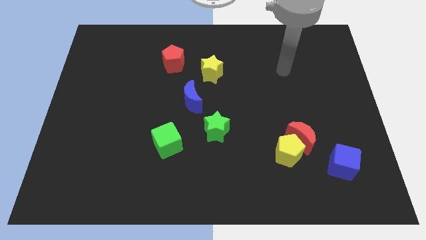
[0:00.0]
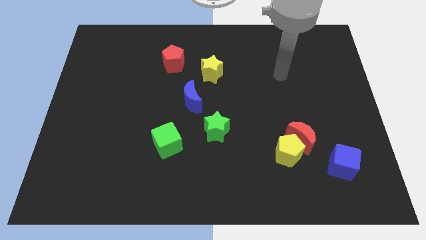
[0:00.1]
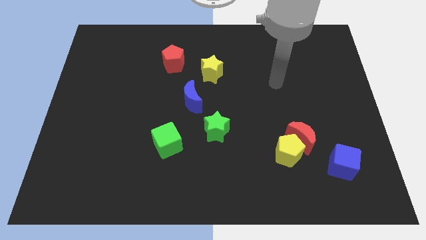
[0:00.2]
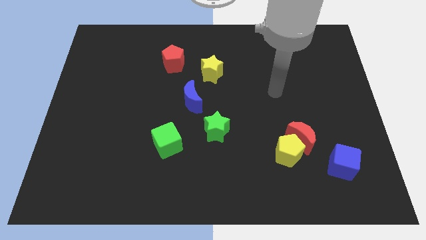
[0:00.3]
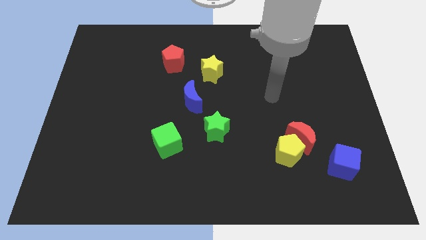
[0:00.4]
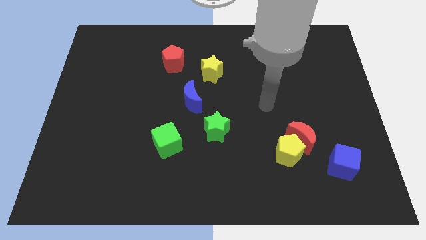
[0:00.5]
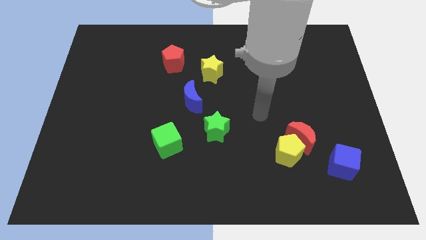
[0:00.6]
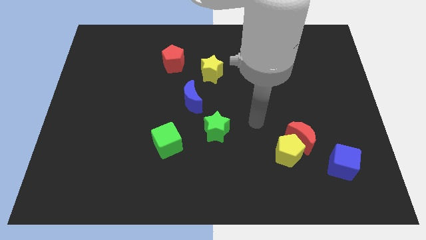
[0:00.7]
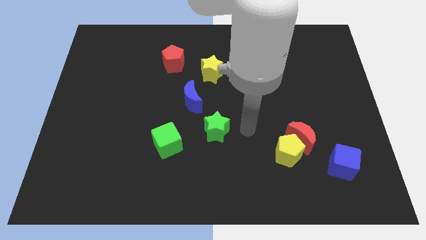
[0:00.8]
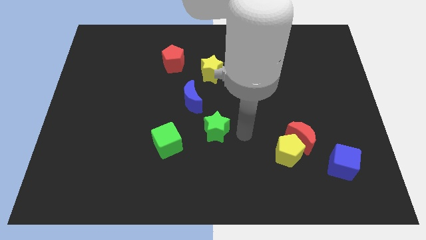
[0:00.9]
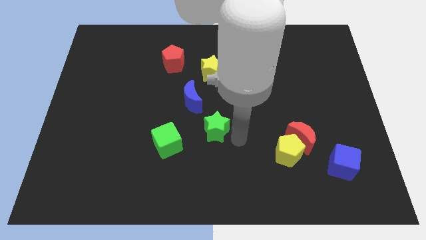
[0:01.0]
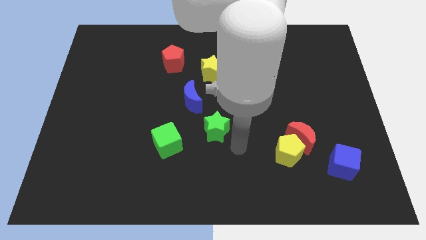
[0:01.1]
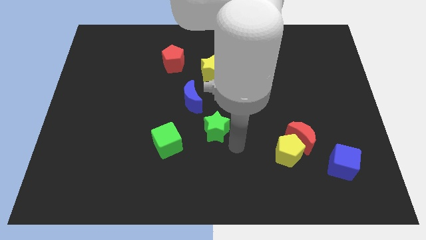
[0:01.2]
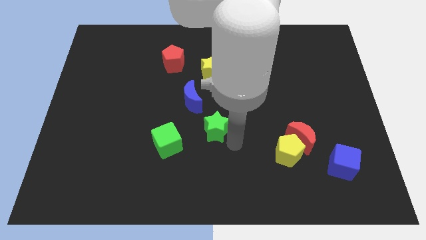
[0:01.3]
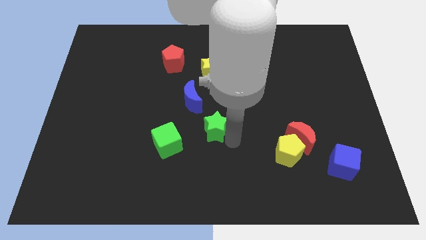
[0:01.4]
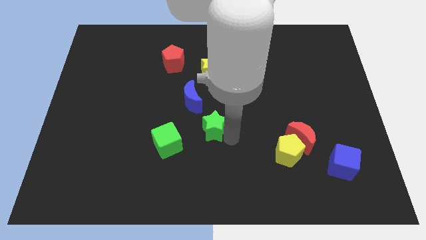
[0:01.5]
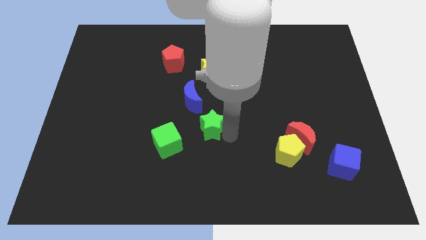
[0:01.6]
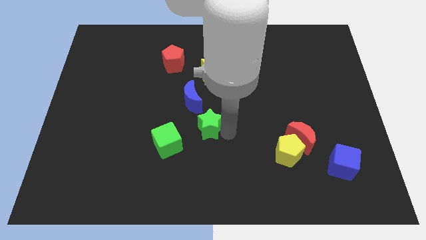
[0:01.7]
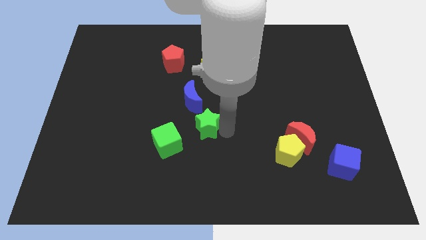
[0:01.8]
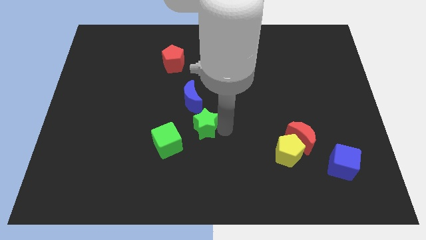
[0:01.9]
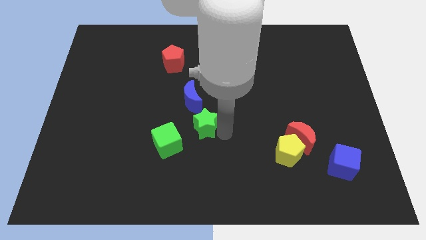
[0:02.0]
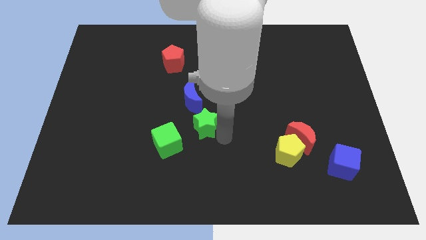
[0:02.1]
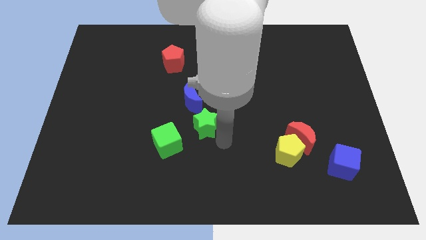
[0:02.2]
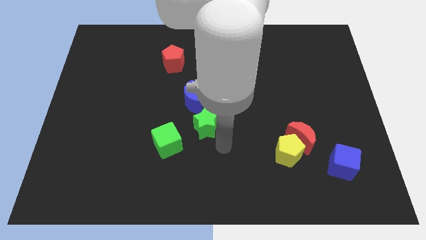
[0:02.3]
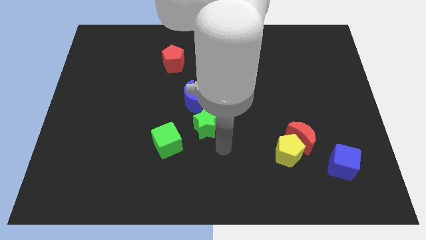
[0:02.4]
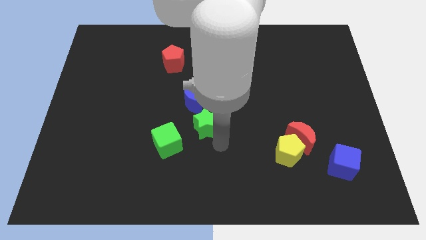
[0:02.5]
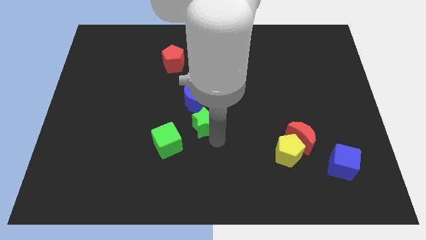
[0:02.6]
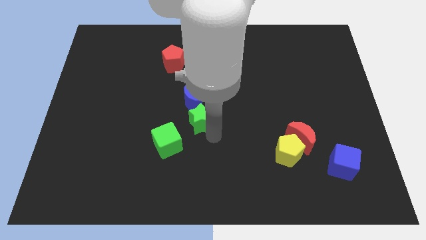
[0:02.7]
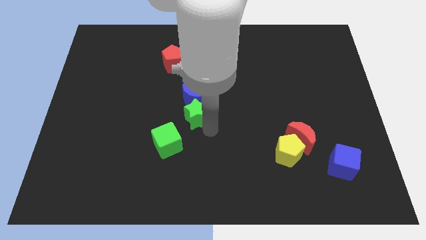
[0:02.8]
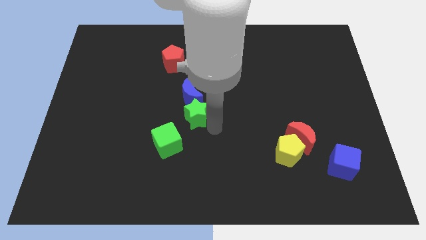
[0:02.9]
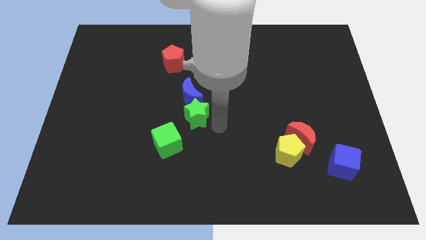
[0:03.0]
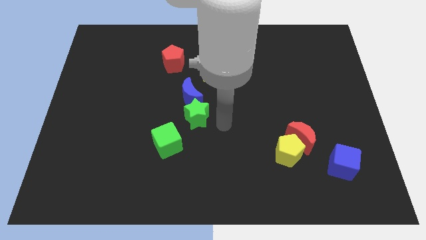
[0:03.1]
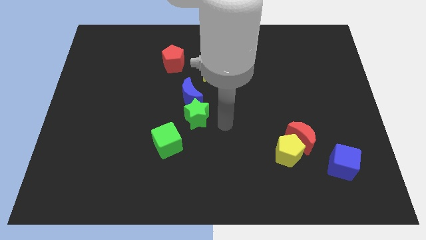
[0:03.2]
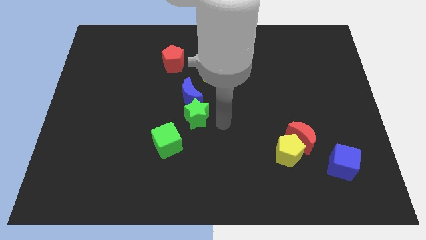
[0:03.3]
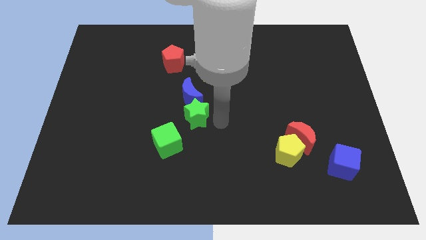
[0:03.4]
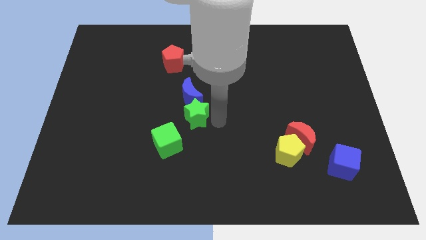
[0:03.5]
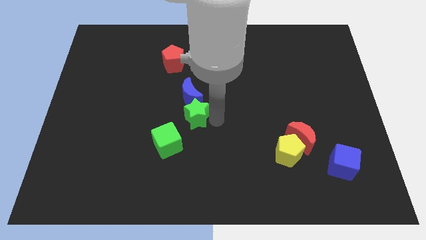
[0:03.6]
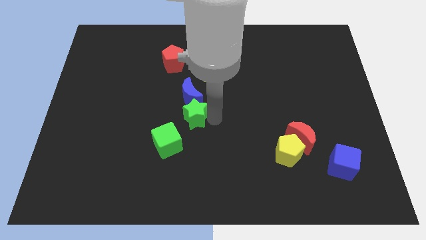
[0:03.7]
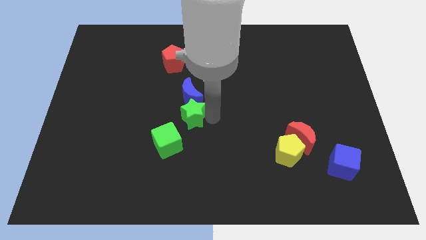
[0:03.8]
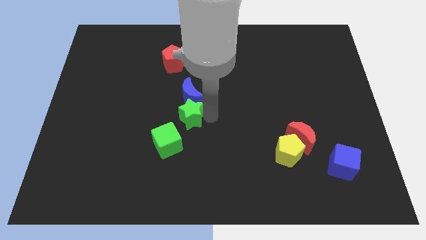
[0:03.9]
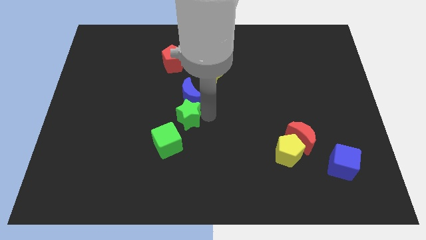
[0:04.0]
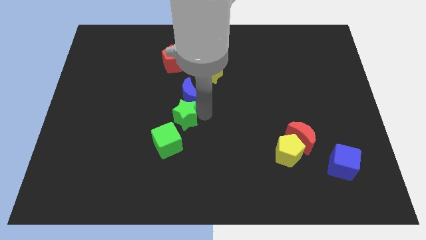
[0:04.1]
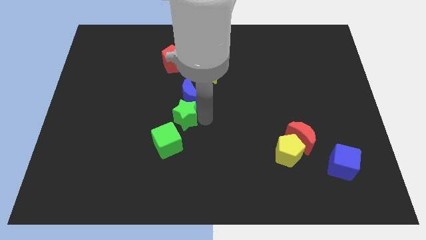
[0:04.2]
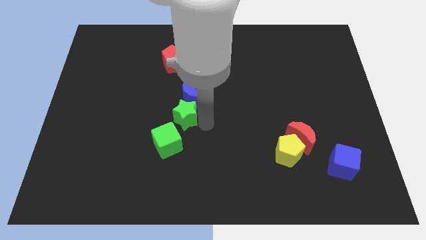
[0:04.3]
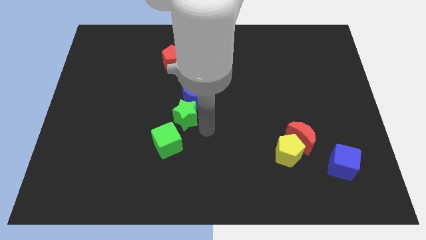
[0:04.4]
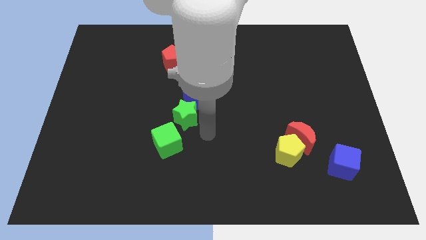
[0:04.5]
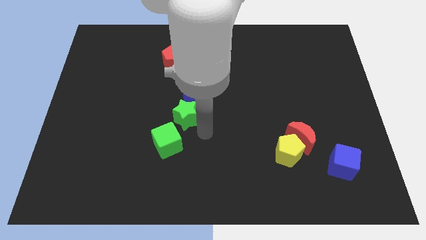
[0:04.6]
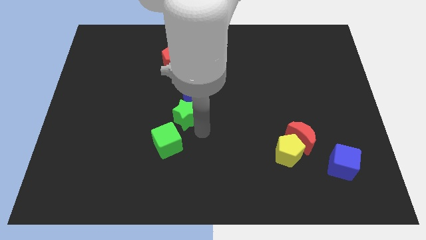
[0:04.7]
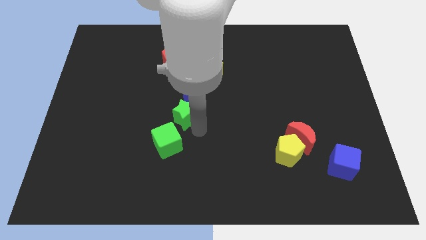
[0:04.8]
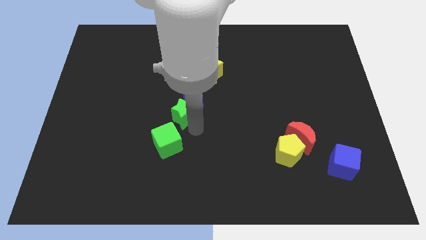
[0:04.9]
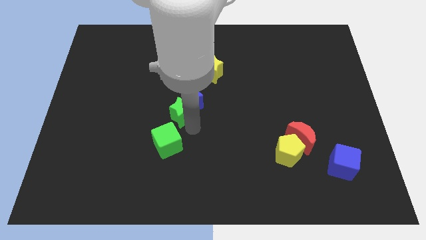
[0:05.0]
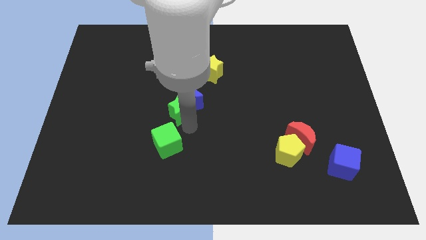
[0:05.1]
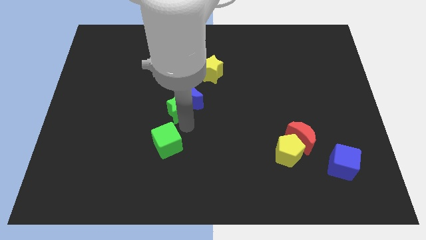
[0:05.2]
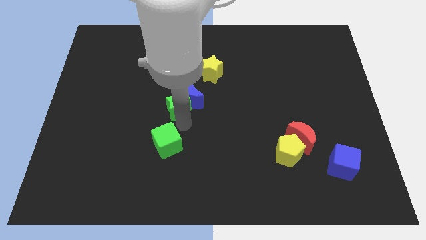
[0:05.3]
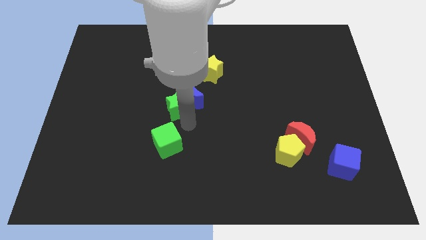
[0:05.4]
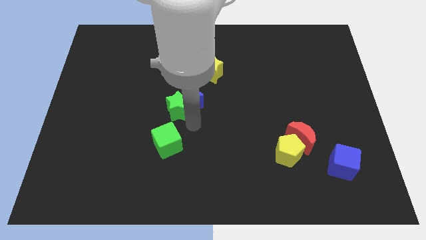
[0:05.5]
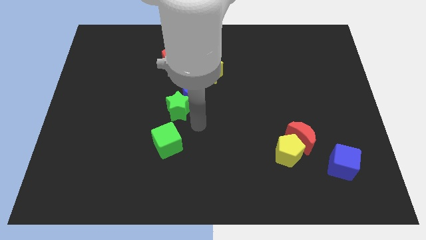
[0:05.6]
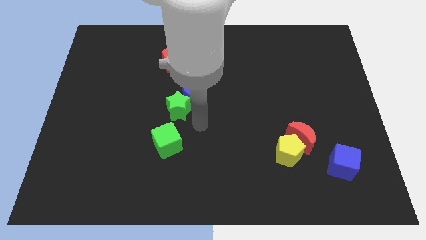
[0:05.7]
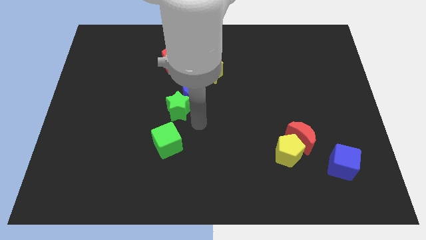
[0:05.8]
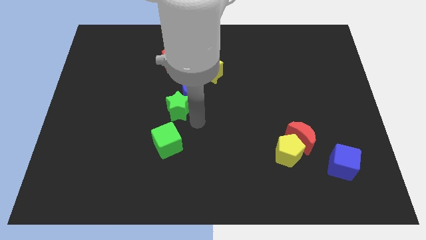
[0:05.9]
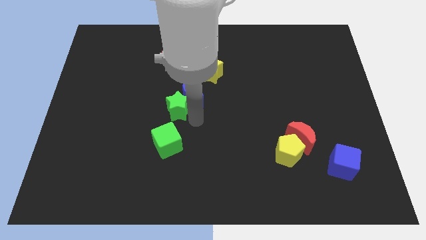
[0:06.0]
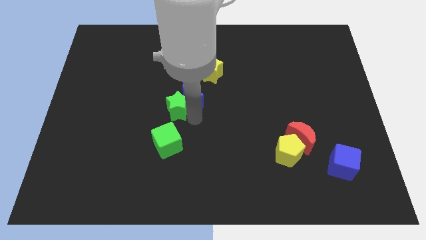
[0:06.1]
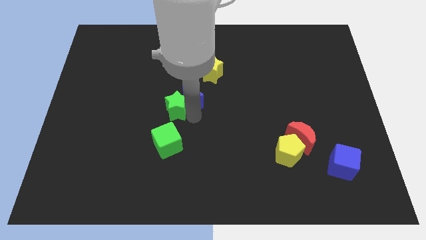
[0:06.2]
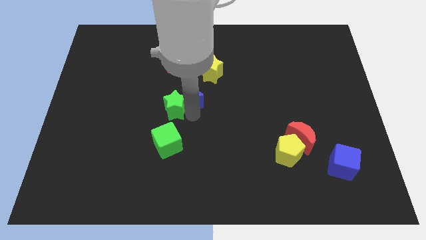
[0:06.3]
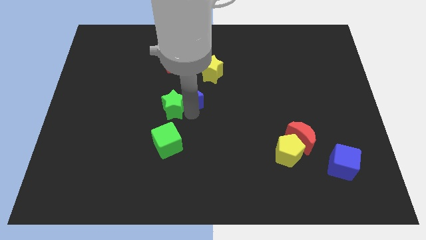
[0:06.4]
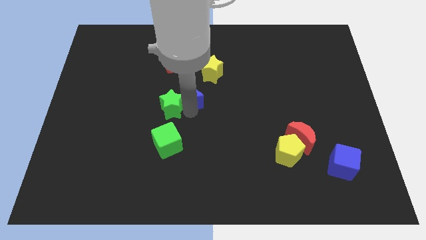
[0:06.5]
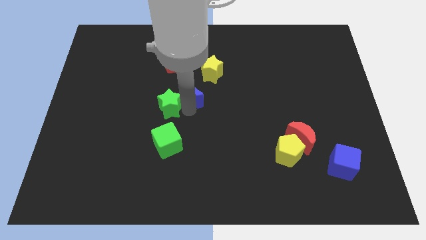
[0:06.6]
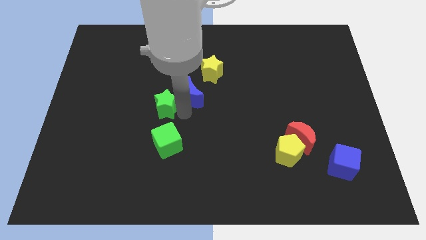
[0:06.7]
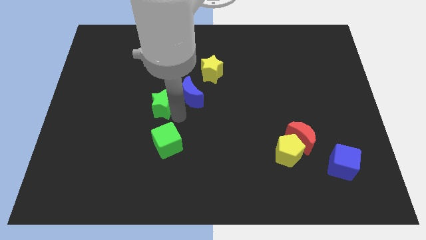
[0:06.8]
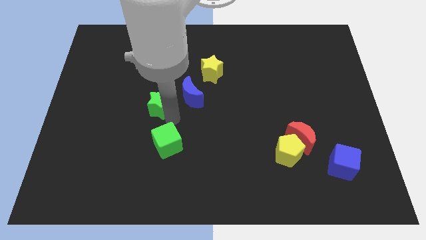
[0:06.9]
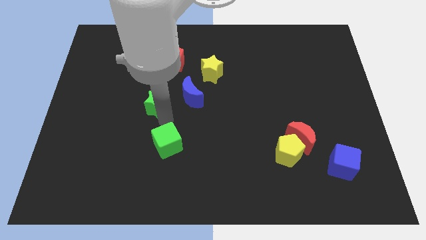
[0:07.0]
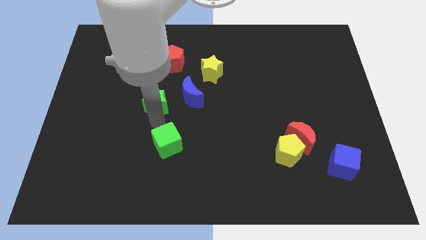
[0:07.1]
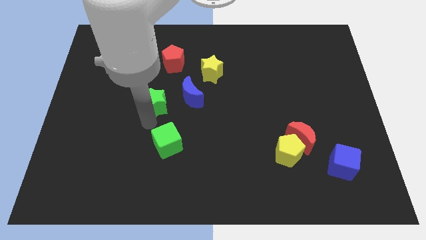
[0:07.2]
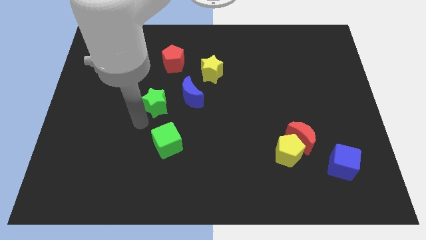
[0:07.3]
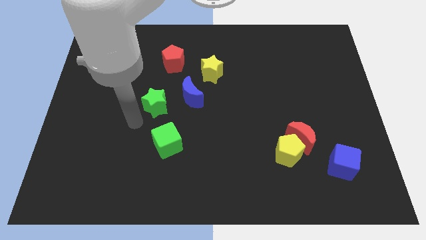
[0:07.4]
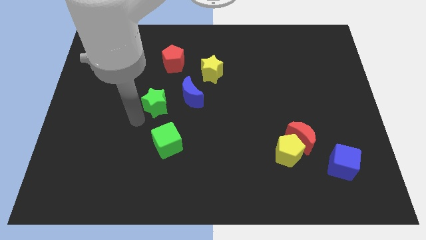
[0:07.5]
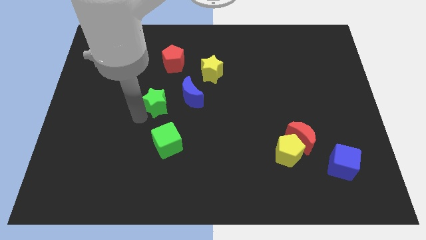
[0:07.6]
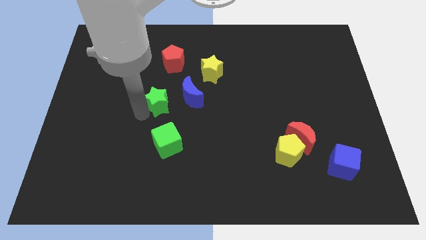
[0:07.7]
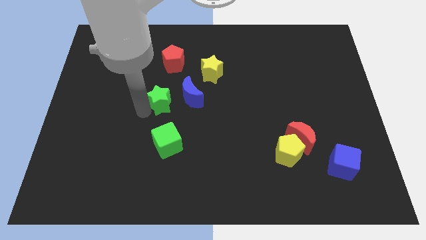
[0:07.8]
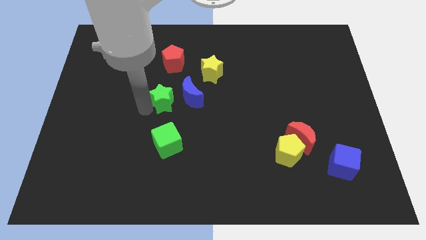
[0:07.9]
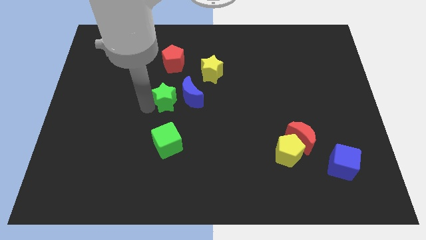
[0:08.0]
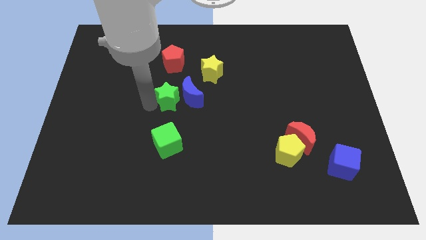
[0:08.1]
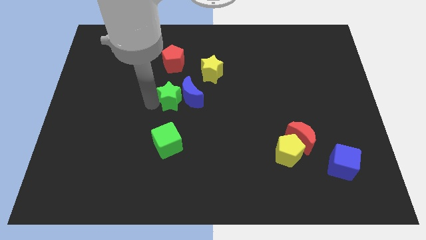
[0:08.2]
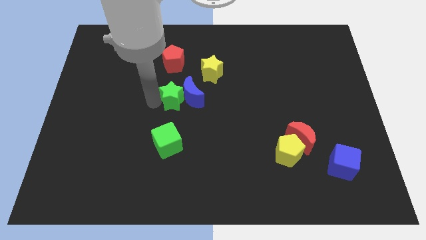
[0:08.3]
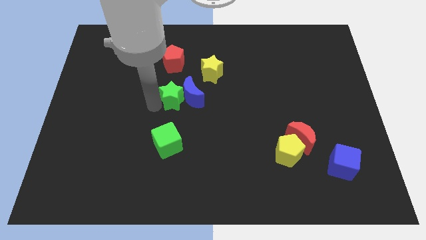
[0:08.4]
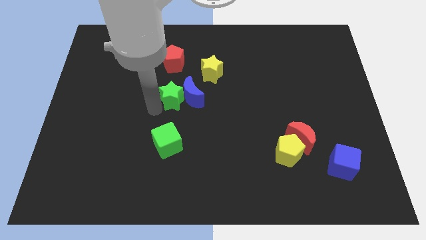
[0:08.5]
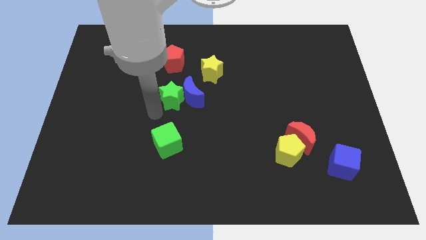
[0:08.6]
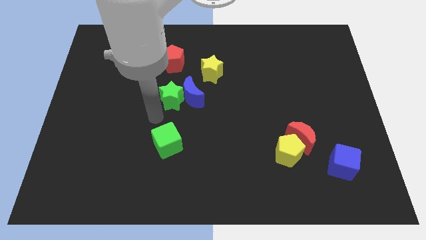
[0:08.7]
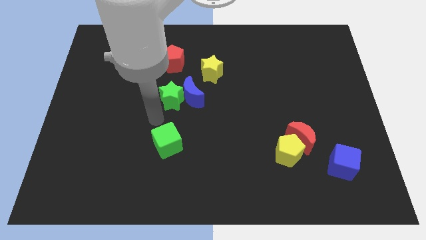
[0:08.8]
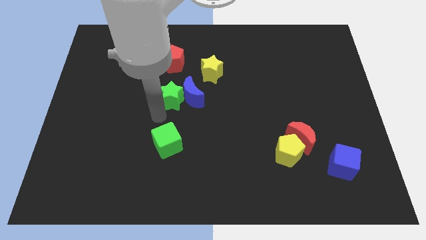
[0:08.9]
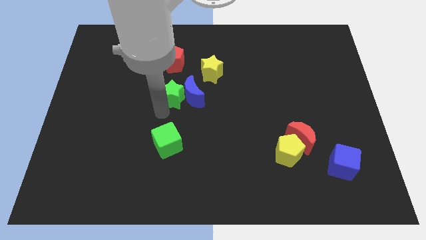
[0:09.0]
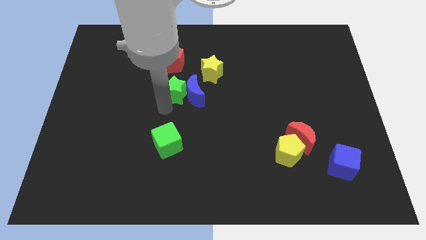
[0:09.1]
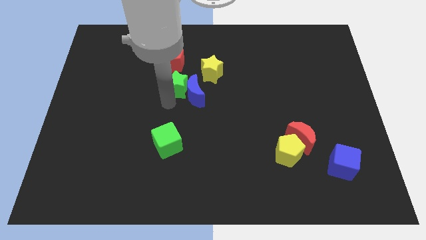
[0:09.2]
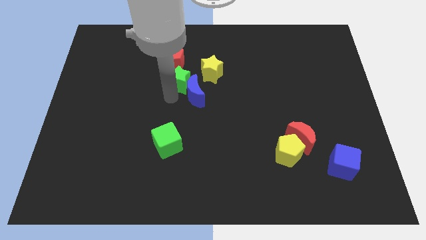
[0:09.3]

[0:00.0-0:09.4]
move the green star to the bottom right side of the red pentagon
